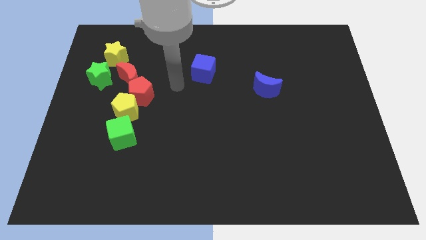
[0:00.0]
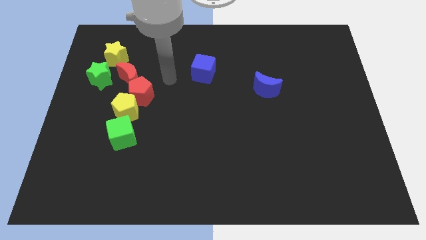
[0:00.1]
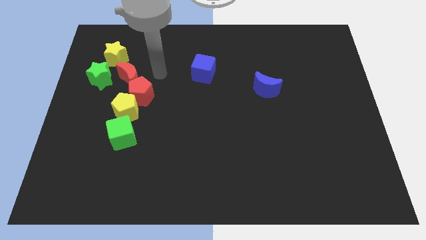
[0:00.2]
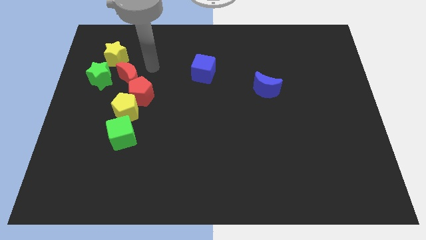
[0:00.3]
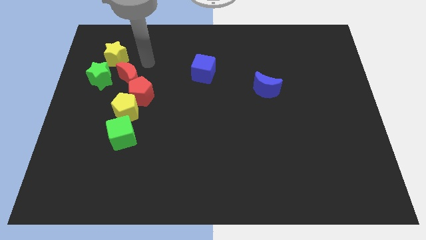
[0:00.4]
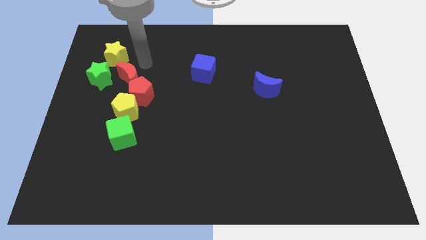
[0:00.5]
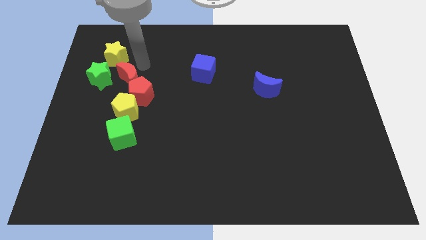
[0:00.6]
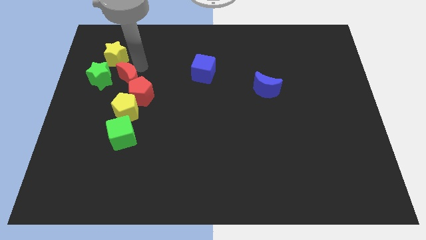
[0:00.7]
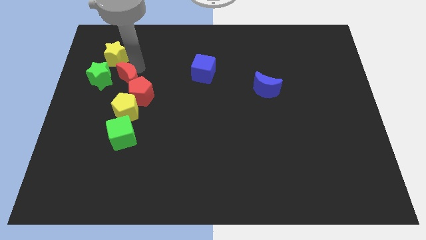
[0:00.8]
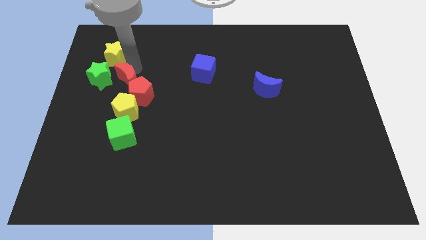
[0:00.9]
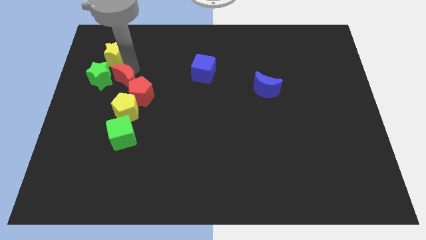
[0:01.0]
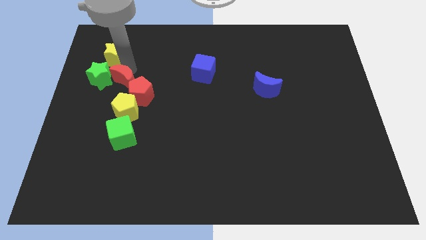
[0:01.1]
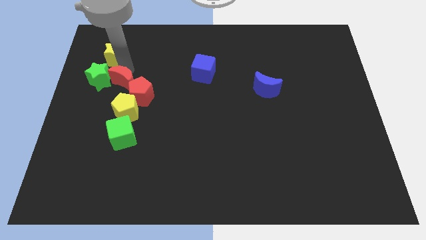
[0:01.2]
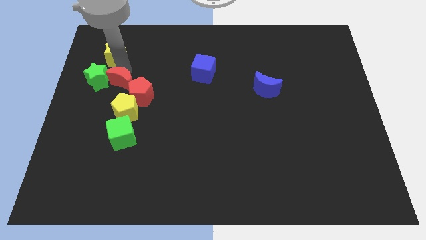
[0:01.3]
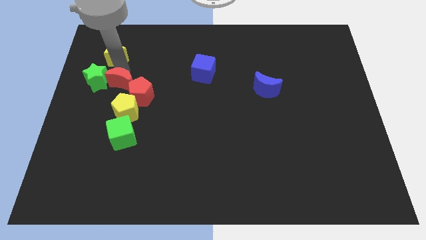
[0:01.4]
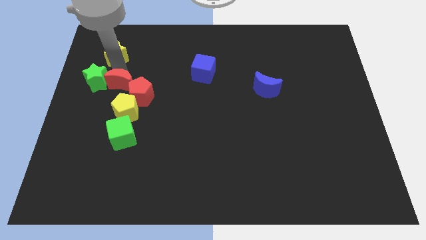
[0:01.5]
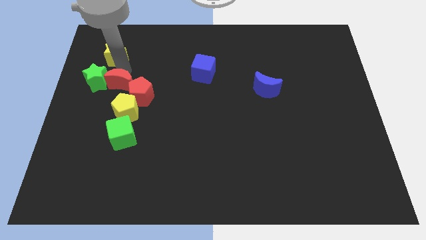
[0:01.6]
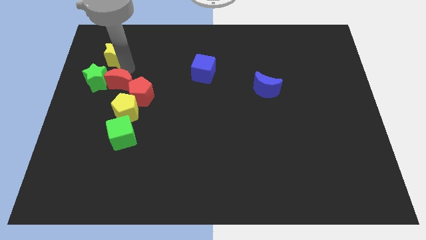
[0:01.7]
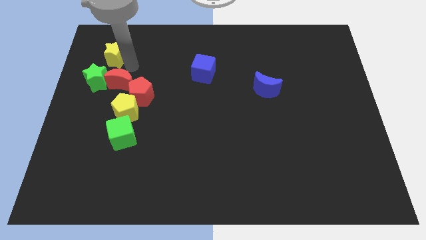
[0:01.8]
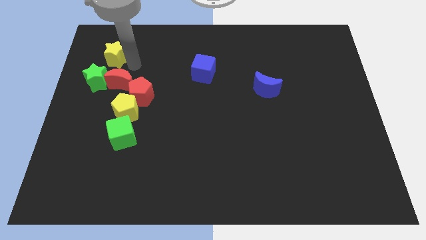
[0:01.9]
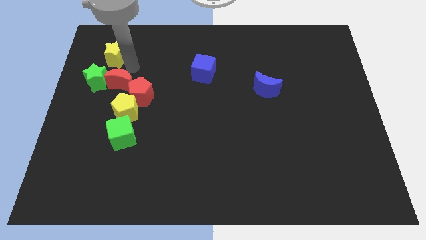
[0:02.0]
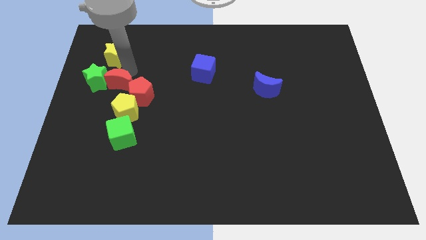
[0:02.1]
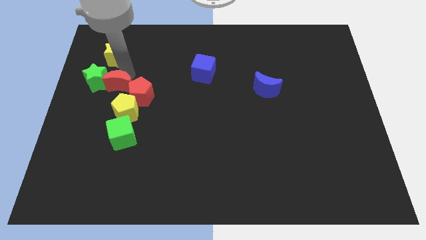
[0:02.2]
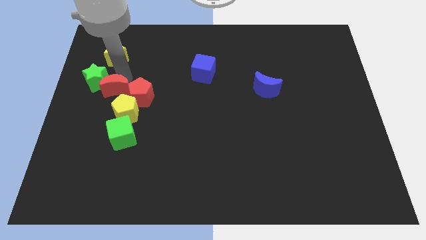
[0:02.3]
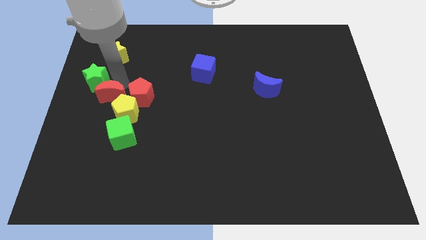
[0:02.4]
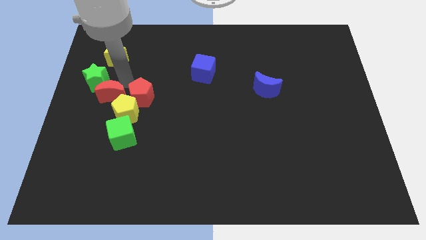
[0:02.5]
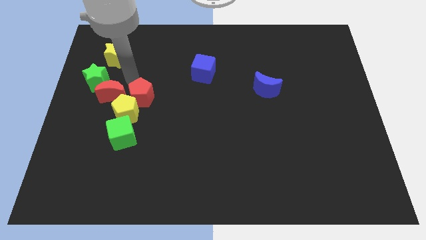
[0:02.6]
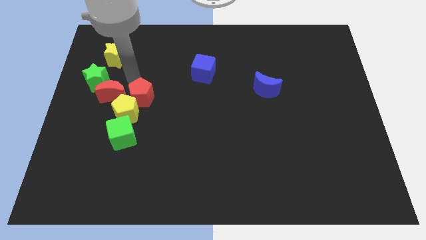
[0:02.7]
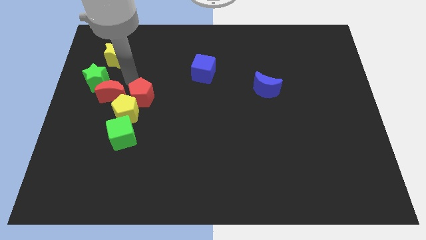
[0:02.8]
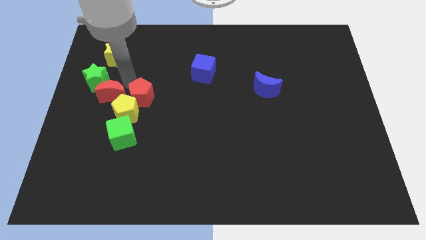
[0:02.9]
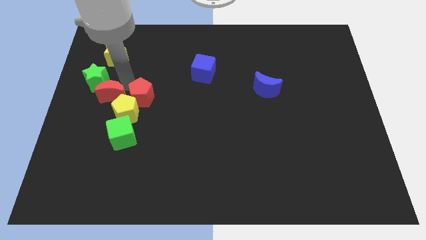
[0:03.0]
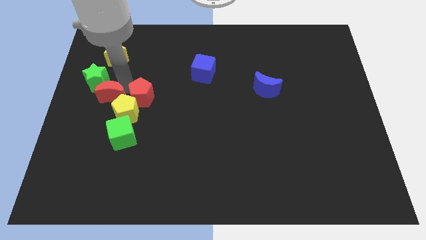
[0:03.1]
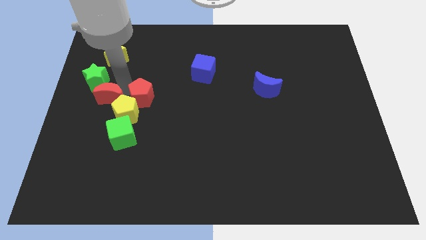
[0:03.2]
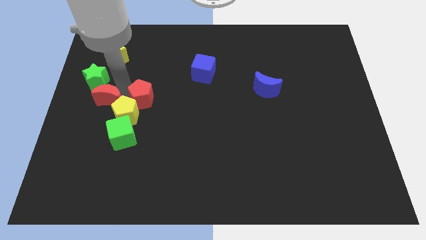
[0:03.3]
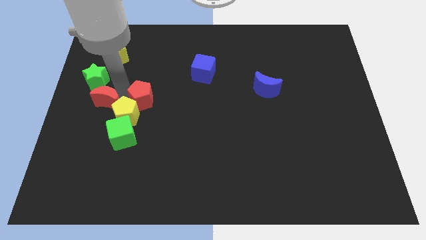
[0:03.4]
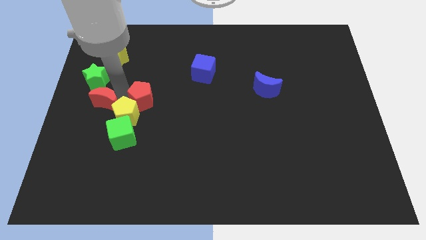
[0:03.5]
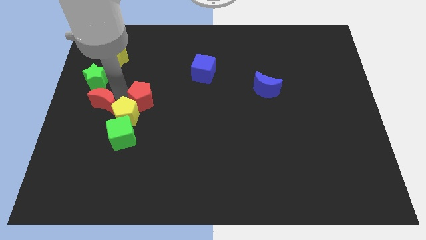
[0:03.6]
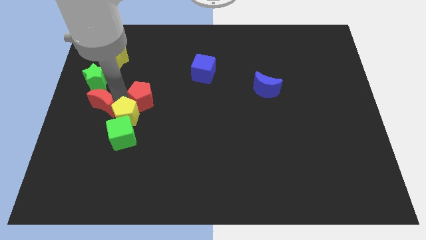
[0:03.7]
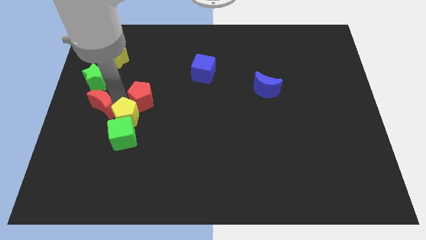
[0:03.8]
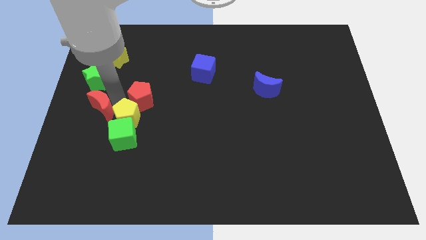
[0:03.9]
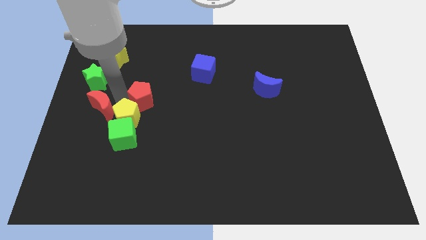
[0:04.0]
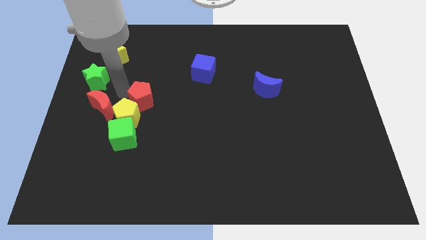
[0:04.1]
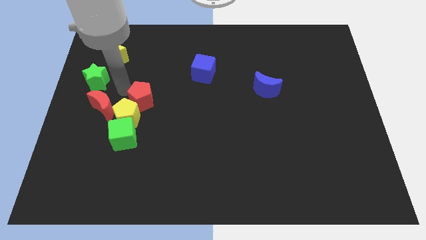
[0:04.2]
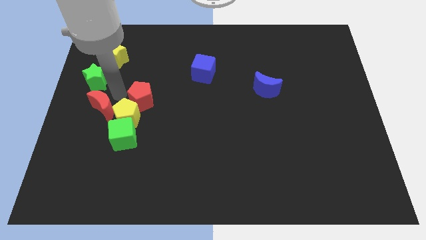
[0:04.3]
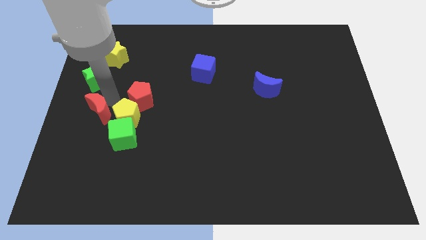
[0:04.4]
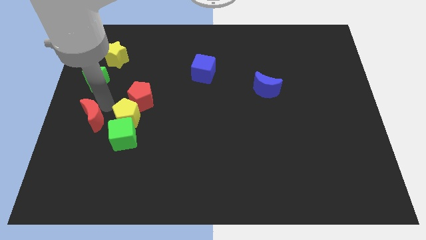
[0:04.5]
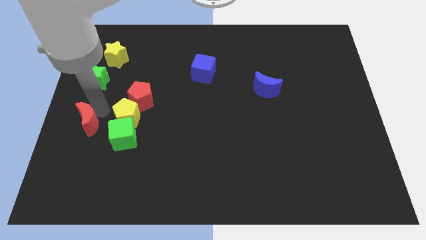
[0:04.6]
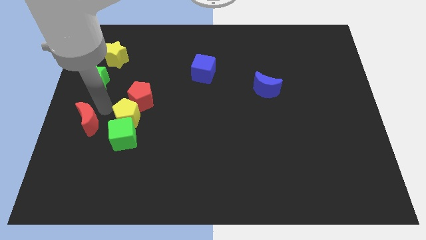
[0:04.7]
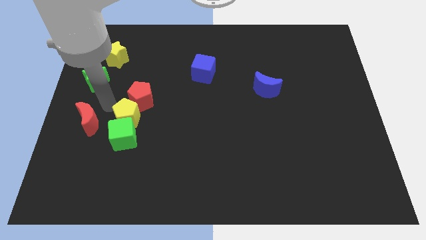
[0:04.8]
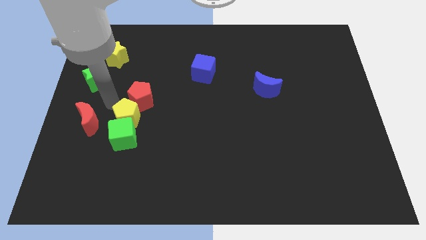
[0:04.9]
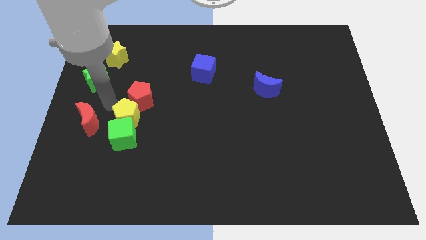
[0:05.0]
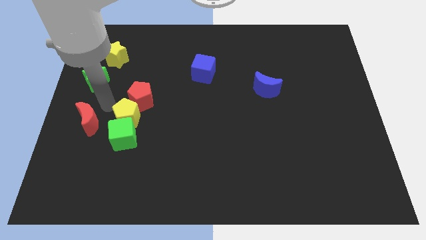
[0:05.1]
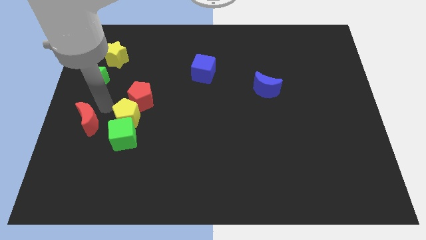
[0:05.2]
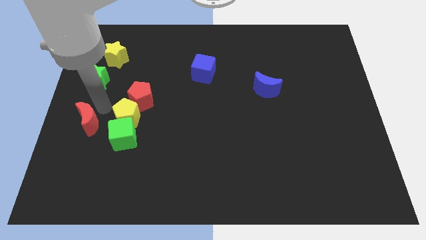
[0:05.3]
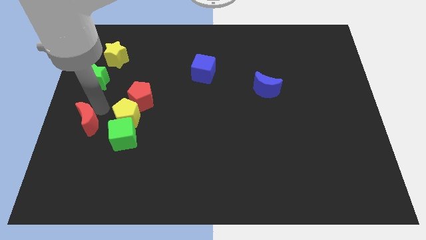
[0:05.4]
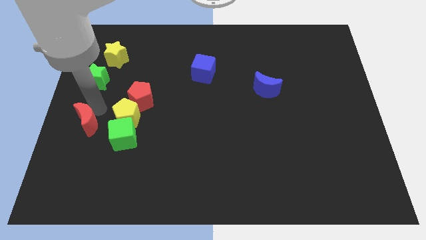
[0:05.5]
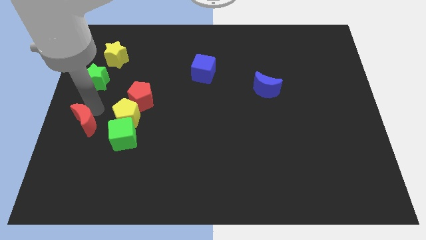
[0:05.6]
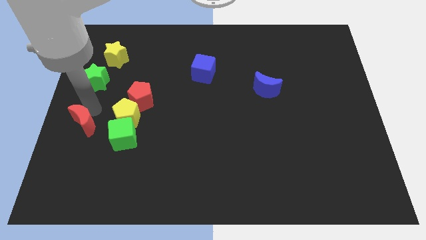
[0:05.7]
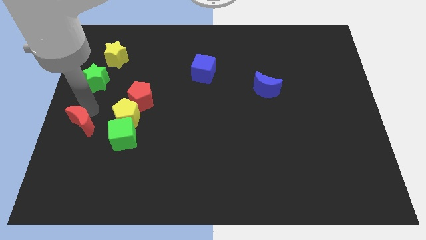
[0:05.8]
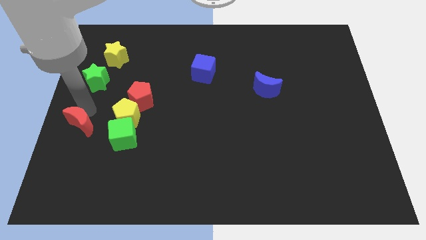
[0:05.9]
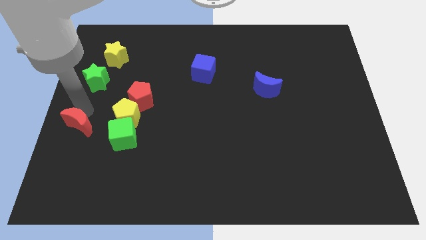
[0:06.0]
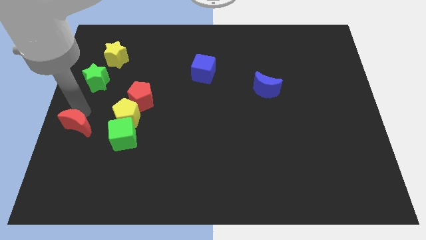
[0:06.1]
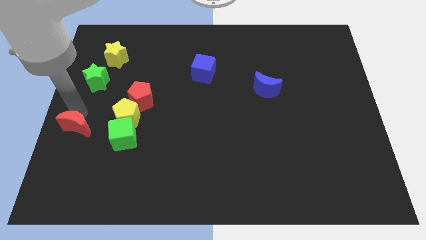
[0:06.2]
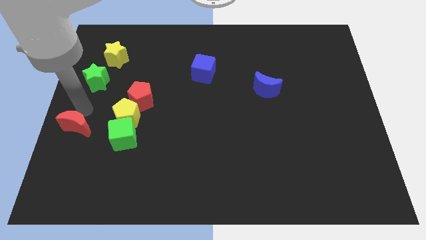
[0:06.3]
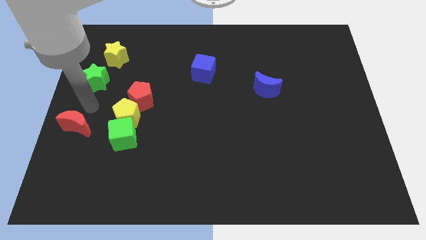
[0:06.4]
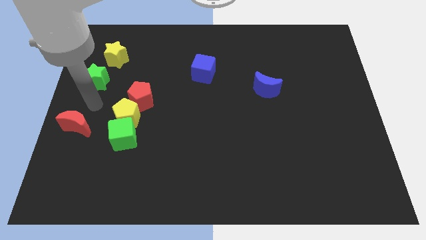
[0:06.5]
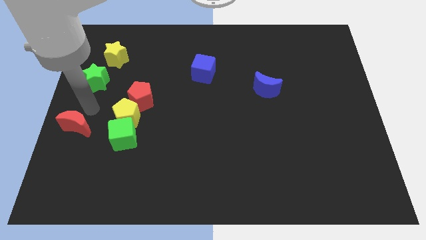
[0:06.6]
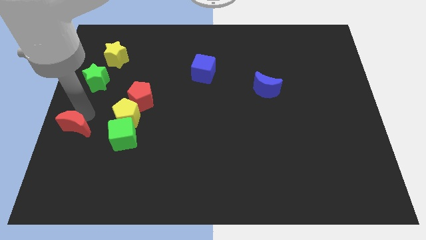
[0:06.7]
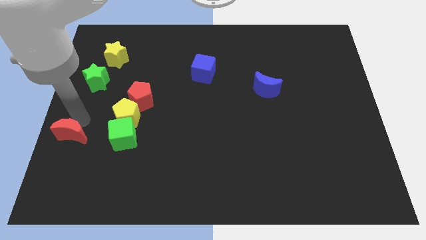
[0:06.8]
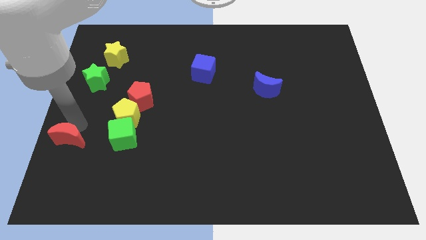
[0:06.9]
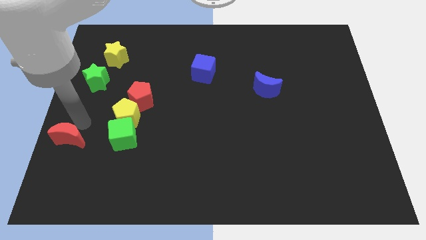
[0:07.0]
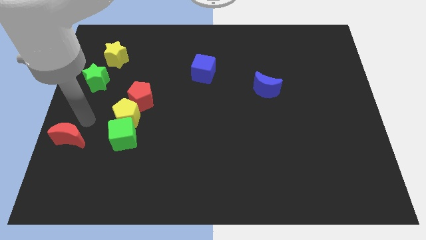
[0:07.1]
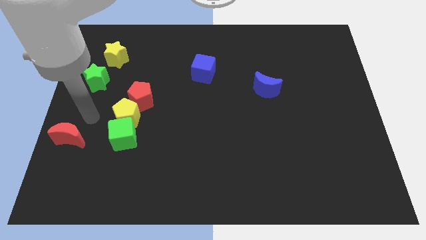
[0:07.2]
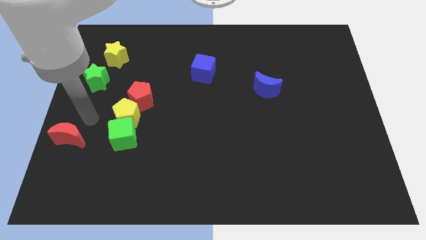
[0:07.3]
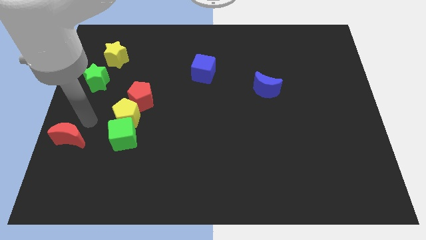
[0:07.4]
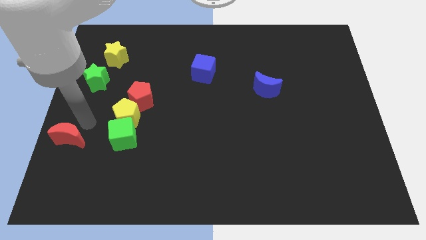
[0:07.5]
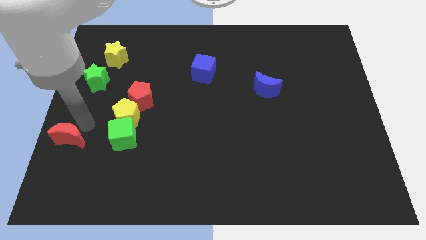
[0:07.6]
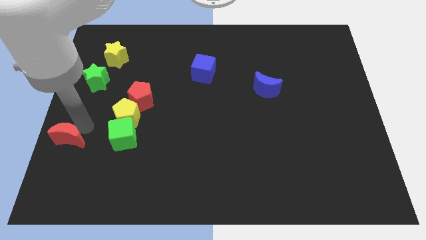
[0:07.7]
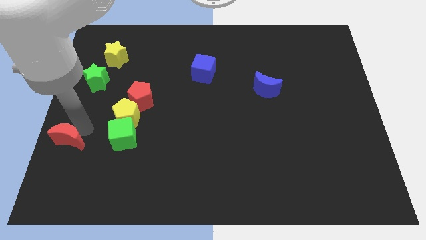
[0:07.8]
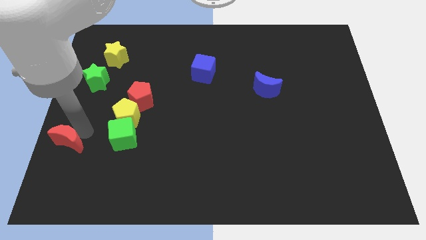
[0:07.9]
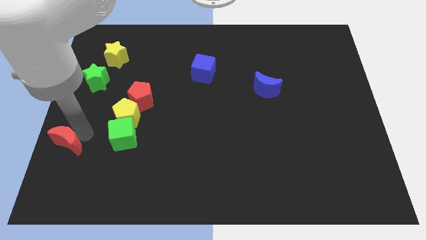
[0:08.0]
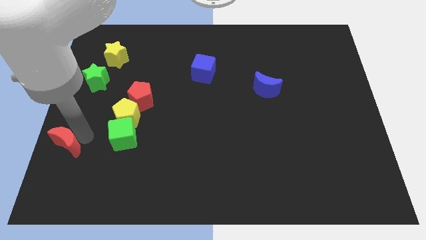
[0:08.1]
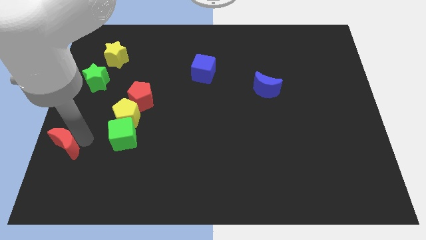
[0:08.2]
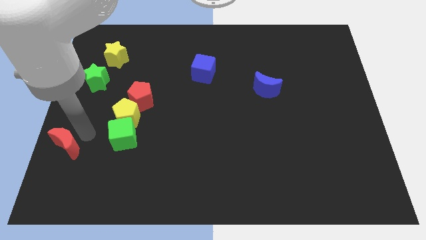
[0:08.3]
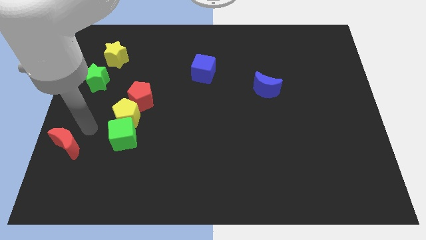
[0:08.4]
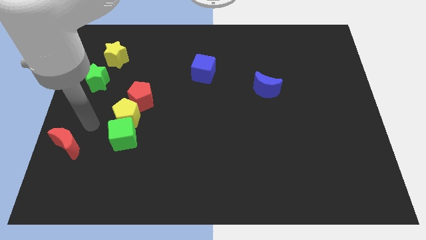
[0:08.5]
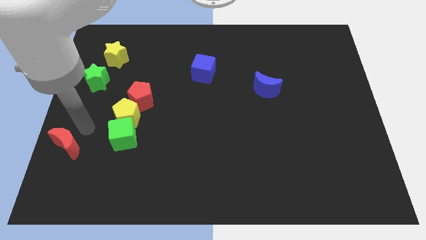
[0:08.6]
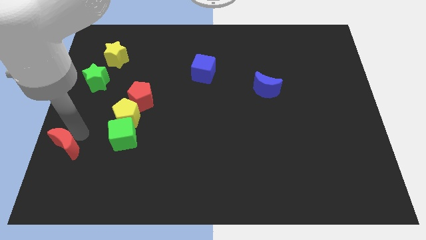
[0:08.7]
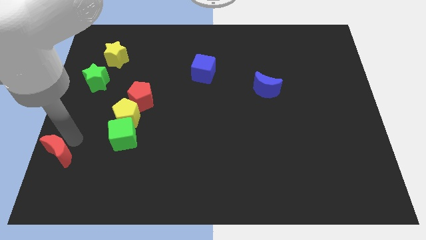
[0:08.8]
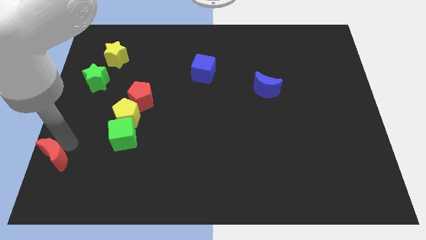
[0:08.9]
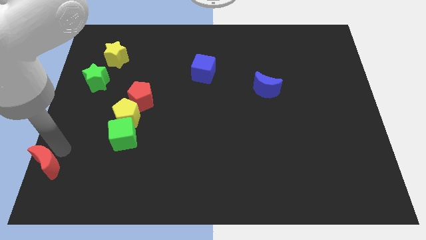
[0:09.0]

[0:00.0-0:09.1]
push the red moon to the bottom left corner
